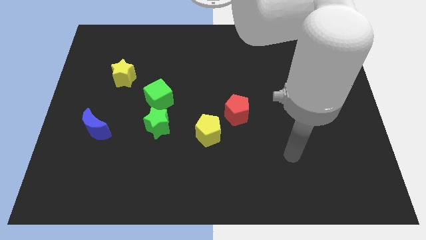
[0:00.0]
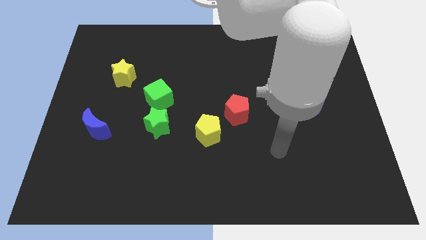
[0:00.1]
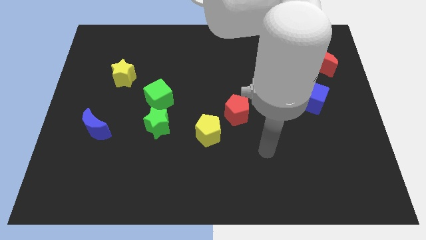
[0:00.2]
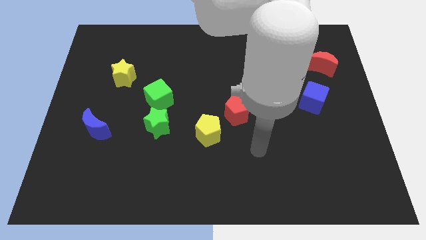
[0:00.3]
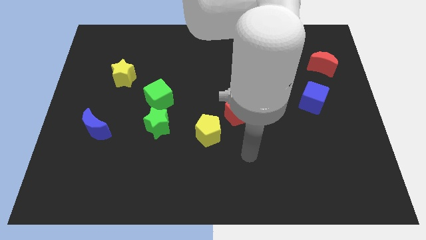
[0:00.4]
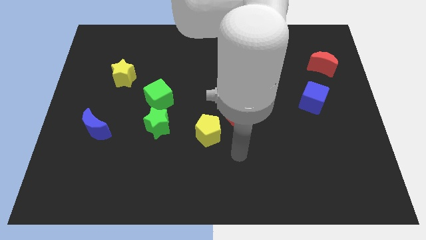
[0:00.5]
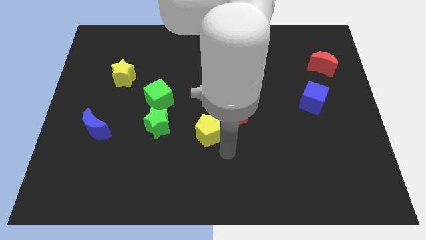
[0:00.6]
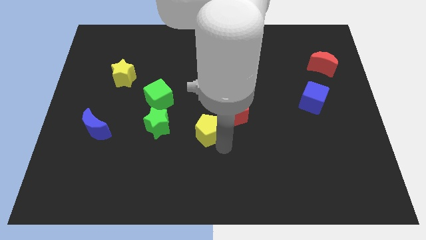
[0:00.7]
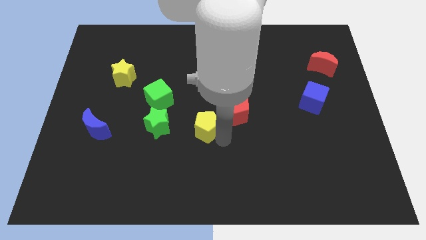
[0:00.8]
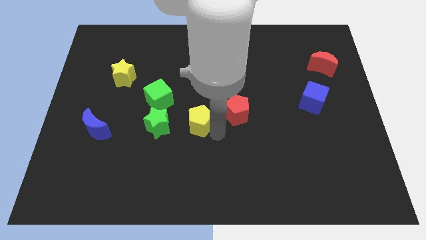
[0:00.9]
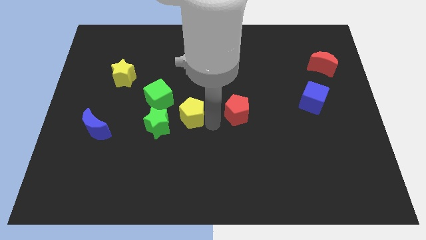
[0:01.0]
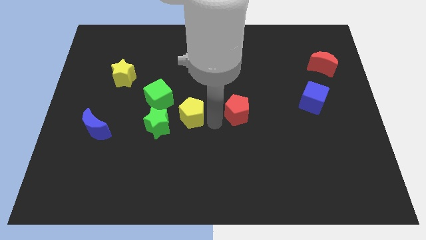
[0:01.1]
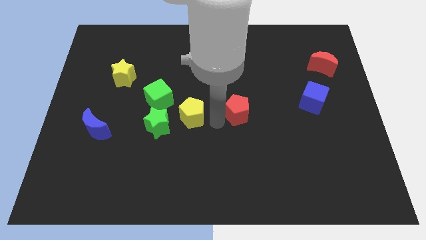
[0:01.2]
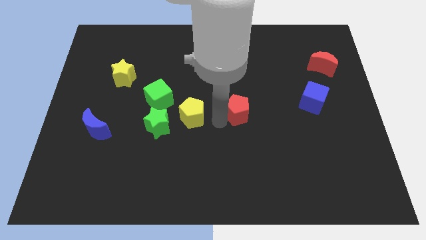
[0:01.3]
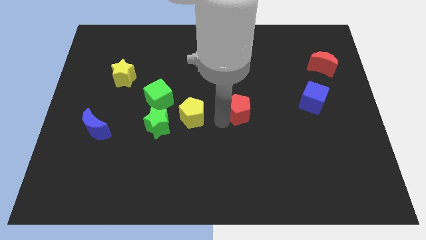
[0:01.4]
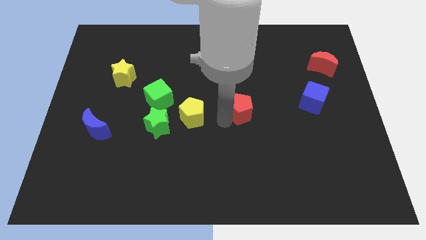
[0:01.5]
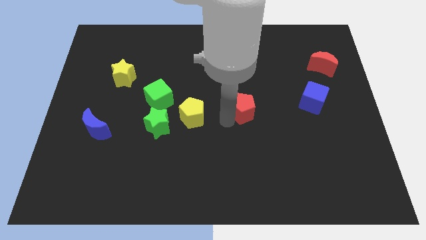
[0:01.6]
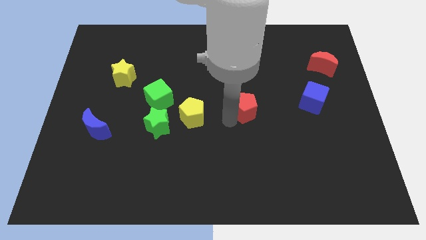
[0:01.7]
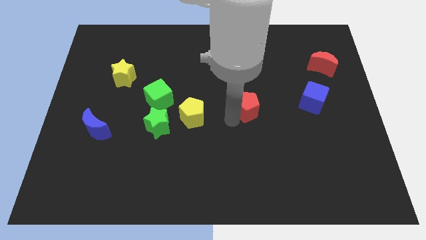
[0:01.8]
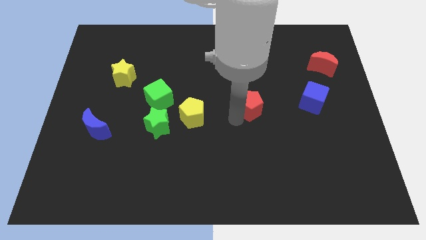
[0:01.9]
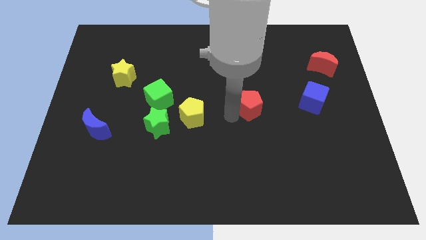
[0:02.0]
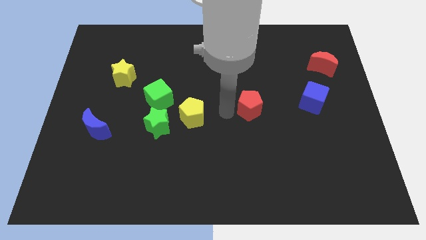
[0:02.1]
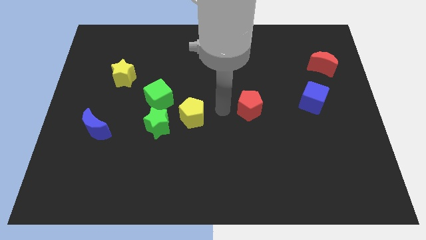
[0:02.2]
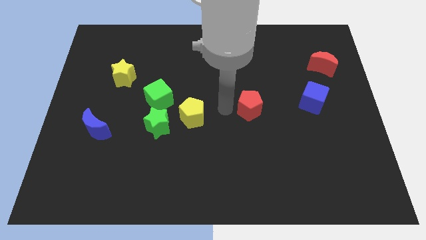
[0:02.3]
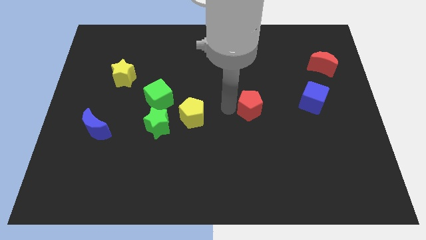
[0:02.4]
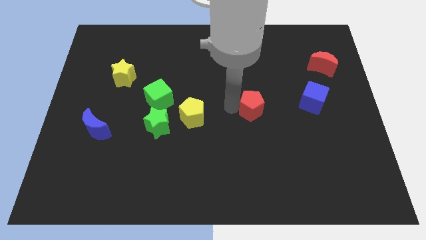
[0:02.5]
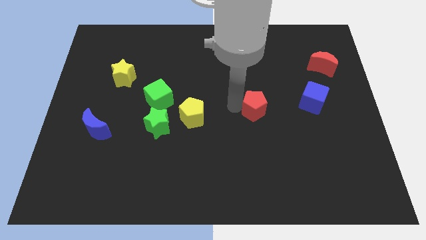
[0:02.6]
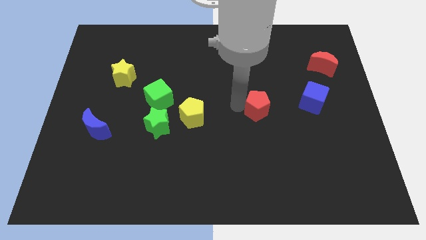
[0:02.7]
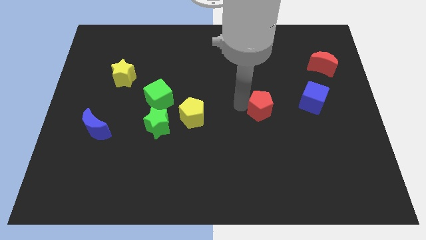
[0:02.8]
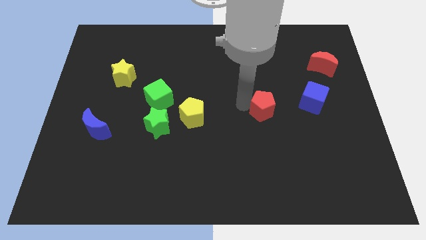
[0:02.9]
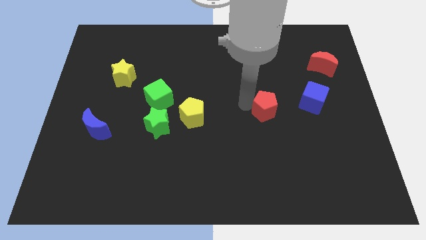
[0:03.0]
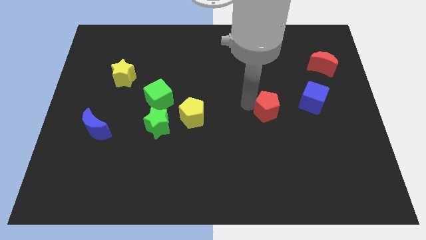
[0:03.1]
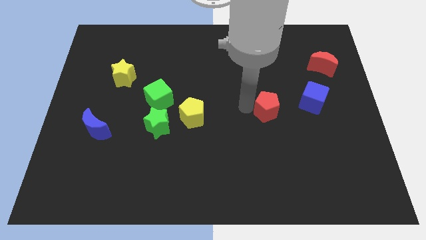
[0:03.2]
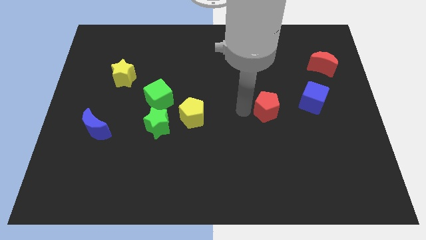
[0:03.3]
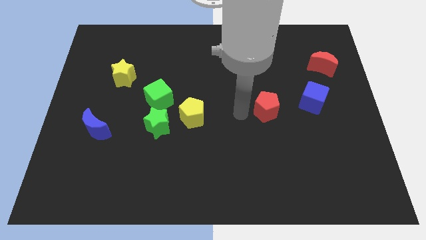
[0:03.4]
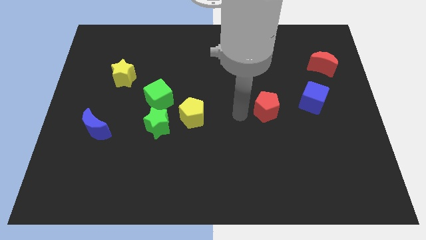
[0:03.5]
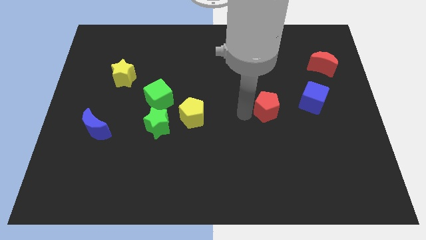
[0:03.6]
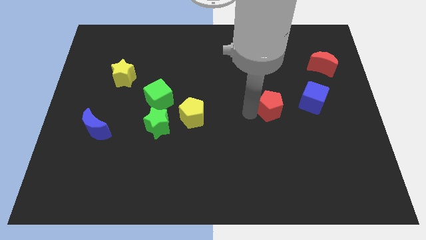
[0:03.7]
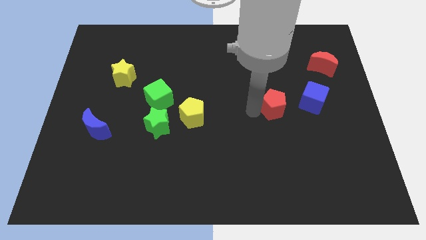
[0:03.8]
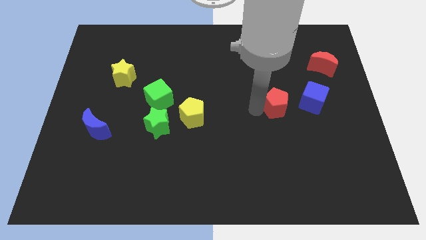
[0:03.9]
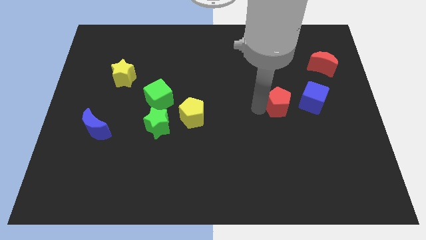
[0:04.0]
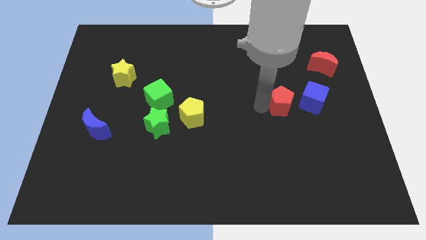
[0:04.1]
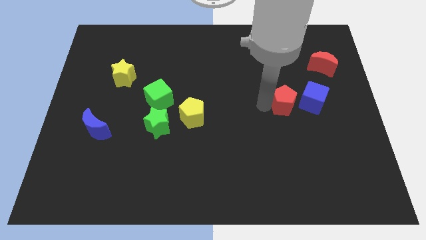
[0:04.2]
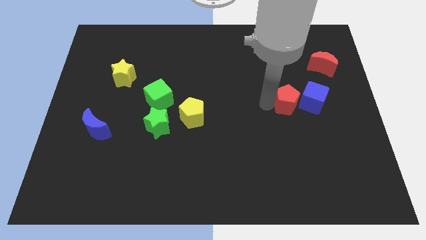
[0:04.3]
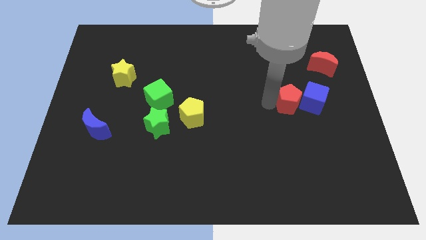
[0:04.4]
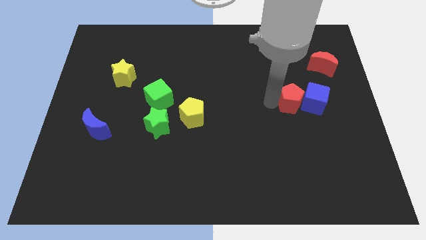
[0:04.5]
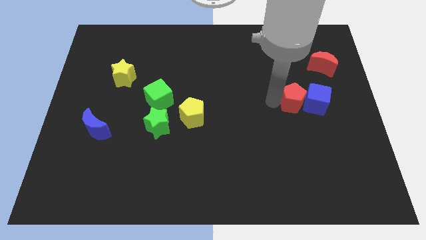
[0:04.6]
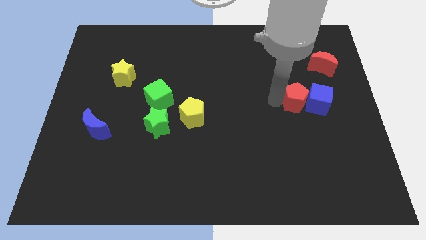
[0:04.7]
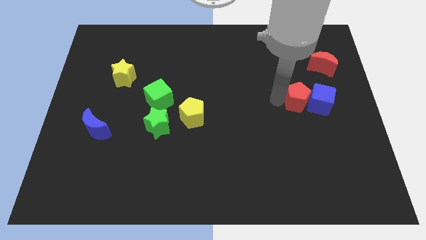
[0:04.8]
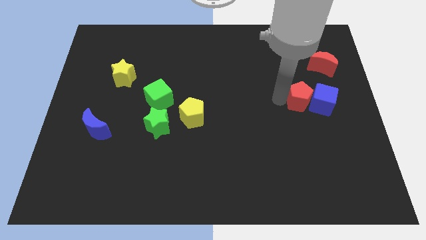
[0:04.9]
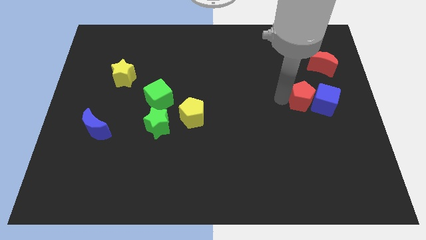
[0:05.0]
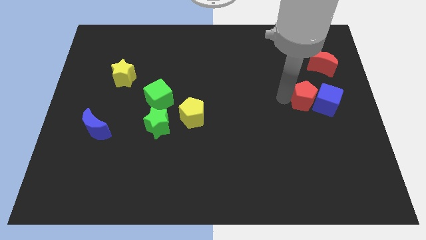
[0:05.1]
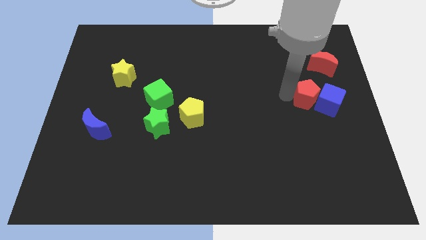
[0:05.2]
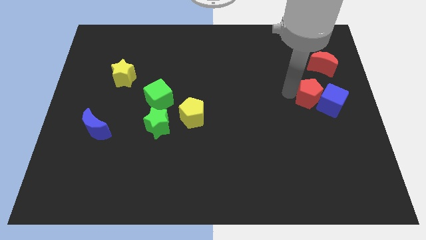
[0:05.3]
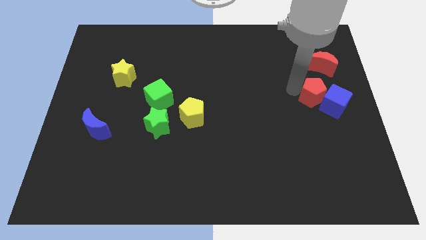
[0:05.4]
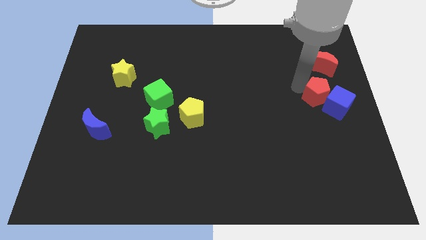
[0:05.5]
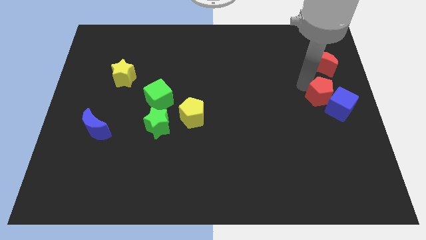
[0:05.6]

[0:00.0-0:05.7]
move the red pentagon to the right side

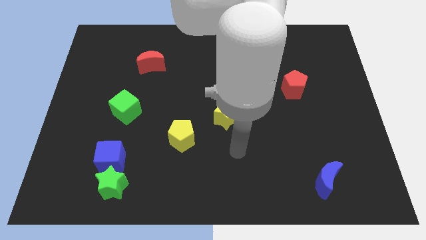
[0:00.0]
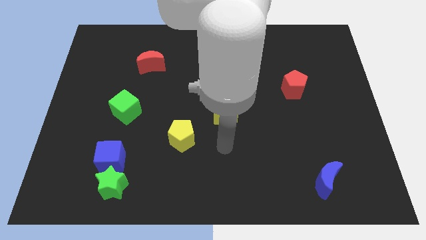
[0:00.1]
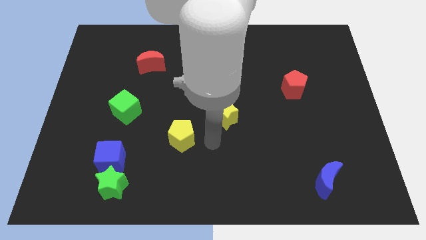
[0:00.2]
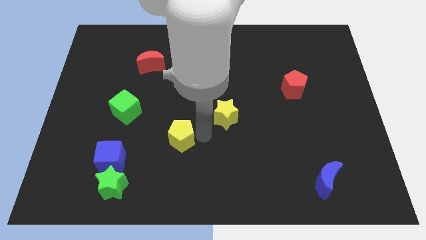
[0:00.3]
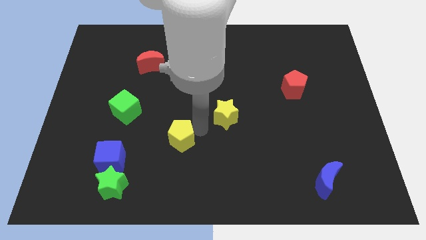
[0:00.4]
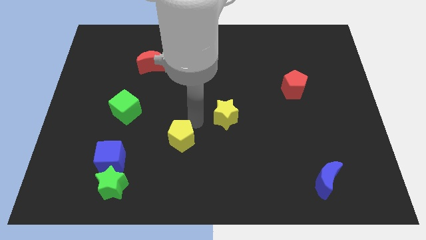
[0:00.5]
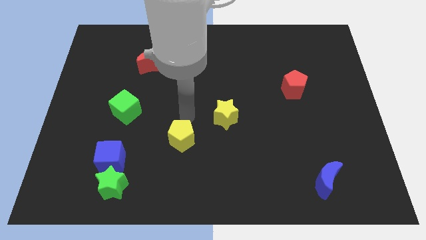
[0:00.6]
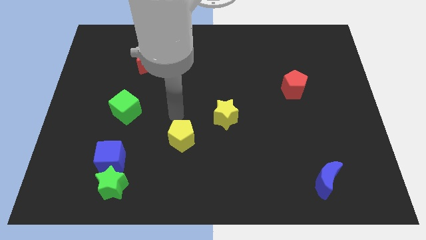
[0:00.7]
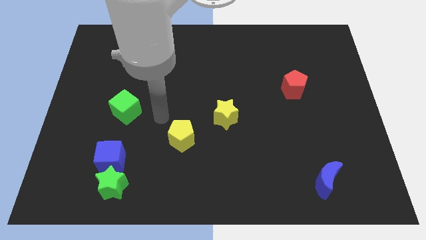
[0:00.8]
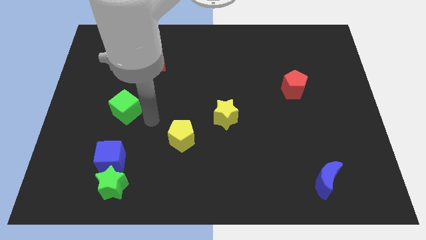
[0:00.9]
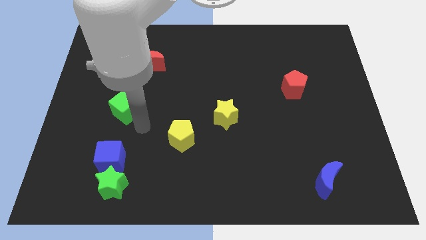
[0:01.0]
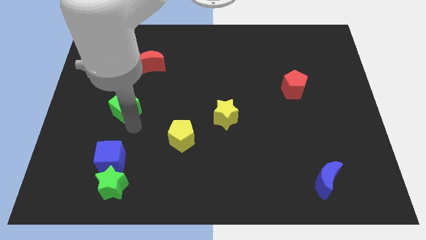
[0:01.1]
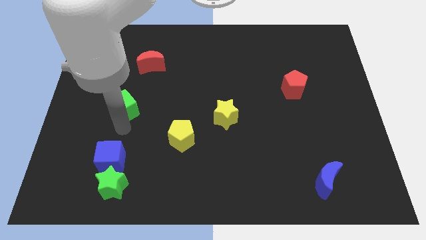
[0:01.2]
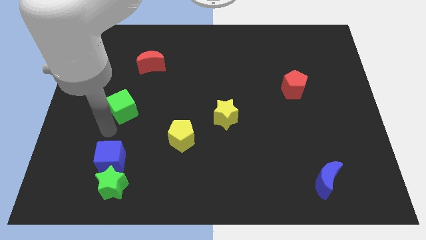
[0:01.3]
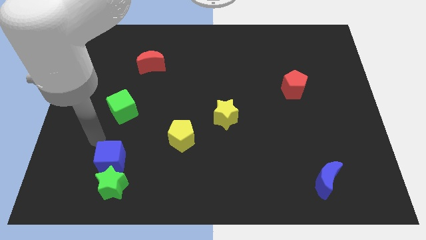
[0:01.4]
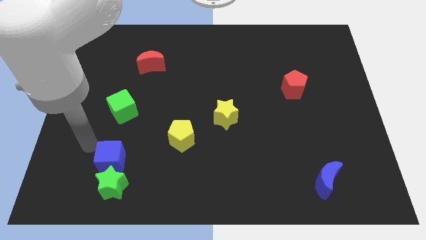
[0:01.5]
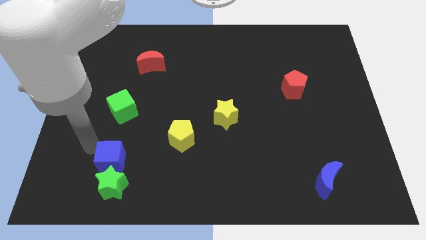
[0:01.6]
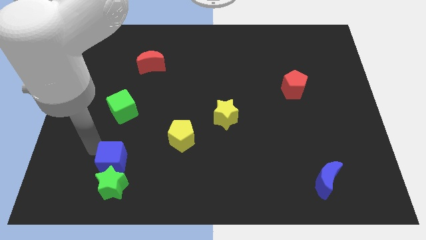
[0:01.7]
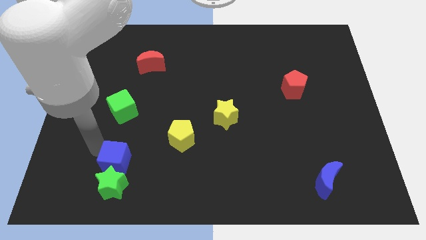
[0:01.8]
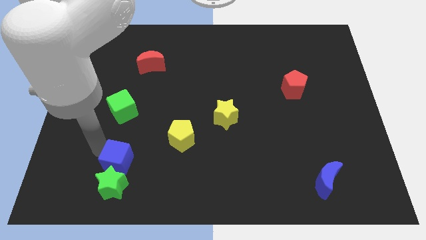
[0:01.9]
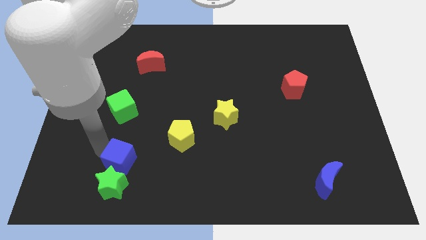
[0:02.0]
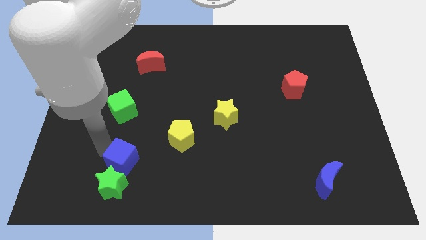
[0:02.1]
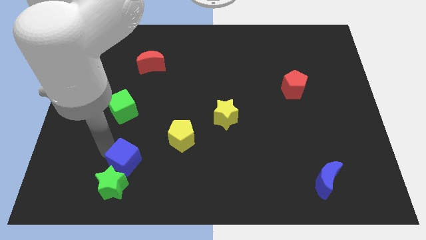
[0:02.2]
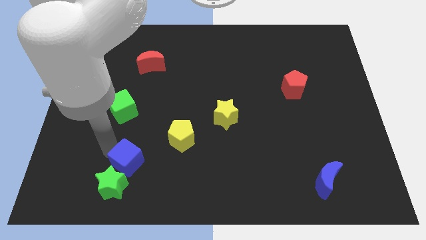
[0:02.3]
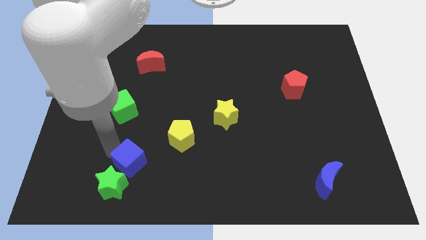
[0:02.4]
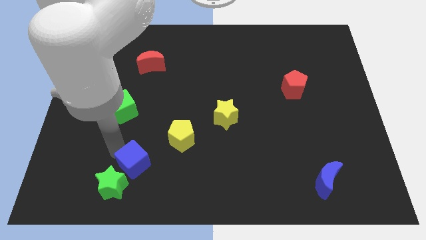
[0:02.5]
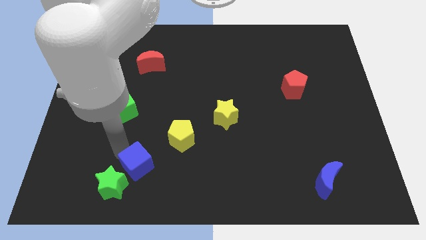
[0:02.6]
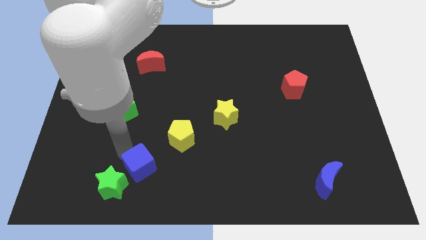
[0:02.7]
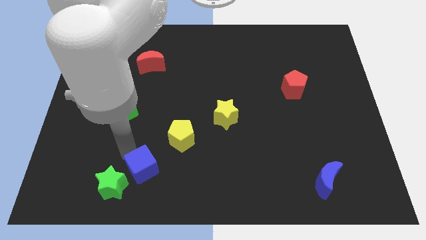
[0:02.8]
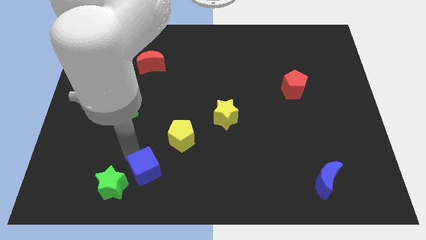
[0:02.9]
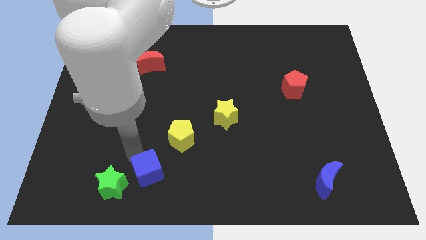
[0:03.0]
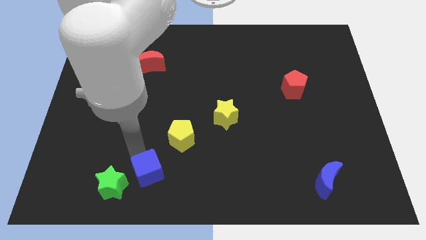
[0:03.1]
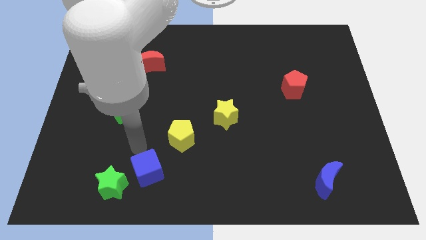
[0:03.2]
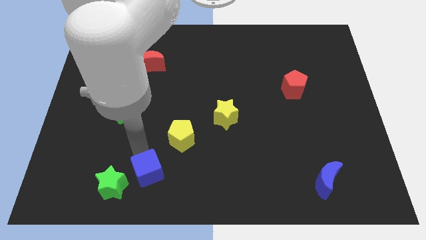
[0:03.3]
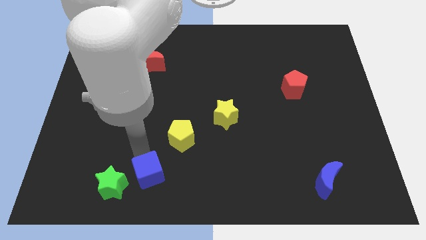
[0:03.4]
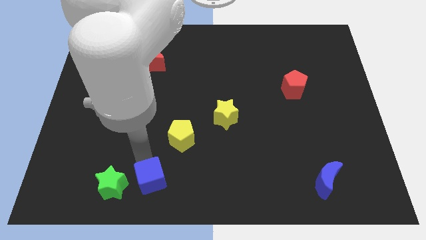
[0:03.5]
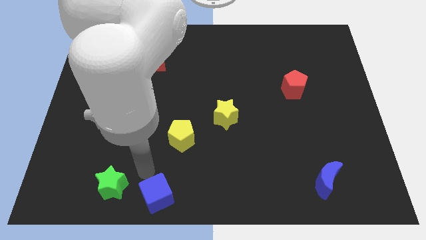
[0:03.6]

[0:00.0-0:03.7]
move the blue cube to the bottom side
